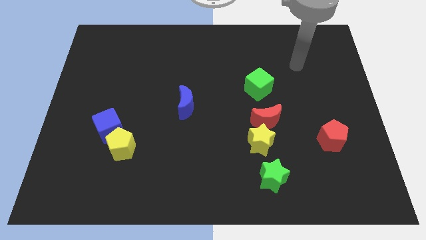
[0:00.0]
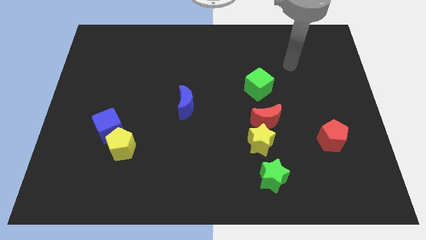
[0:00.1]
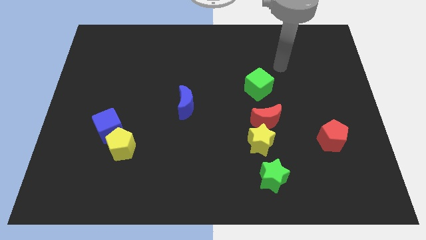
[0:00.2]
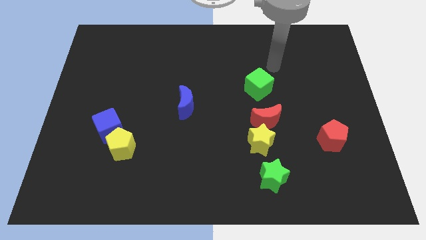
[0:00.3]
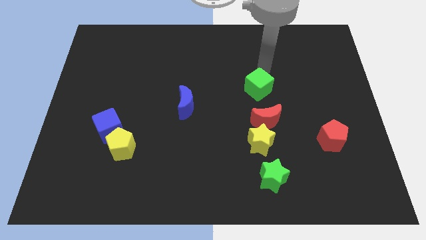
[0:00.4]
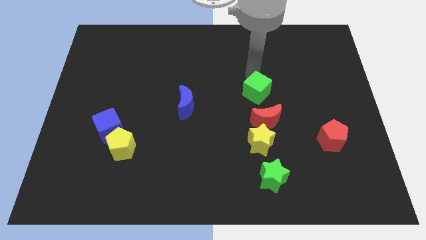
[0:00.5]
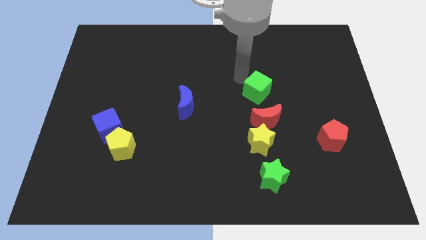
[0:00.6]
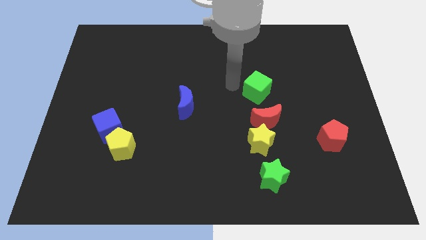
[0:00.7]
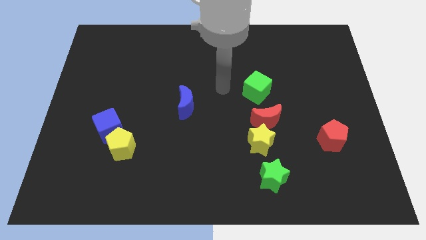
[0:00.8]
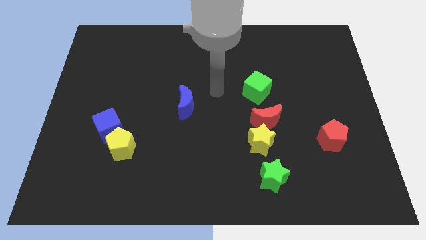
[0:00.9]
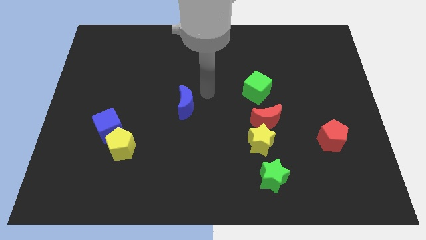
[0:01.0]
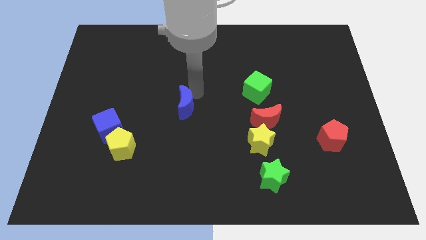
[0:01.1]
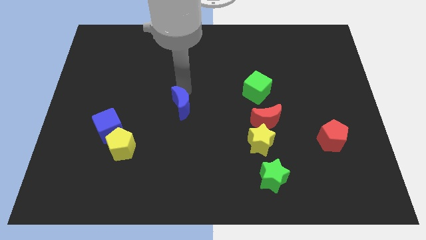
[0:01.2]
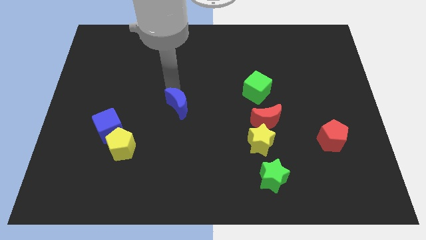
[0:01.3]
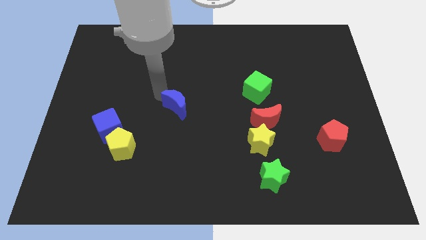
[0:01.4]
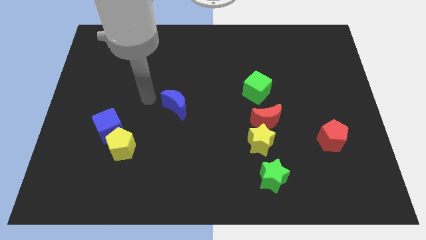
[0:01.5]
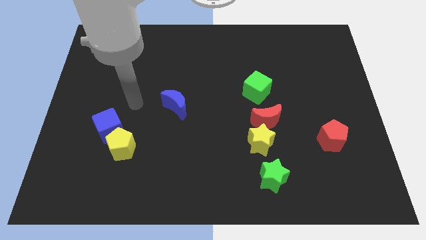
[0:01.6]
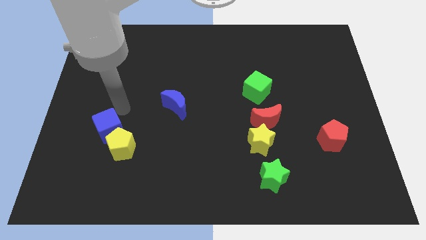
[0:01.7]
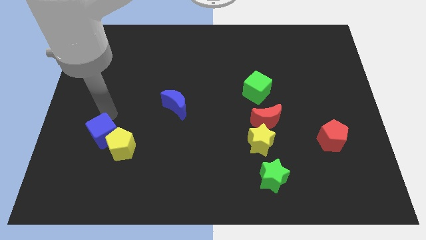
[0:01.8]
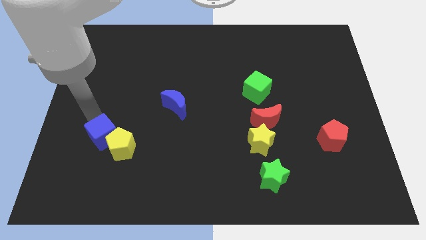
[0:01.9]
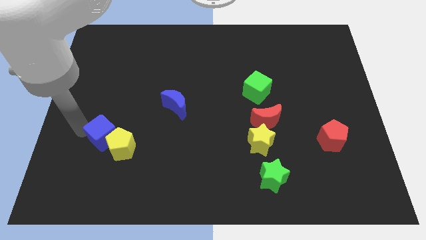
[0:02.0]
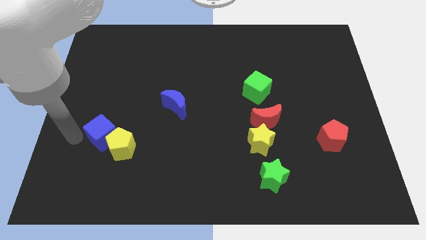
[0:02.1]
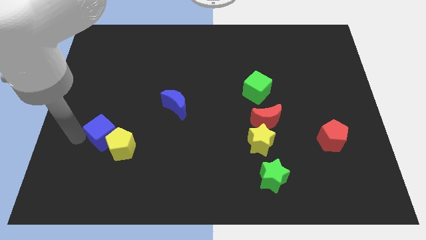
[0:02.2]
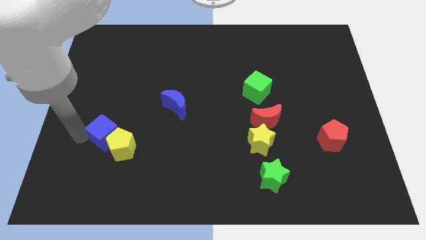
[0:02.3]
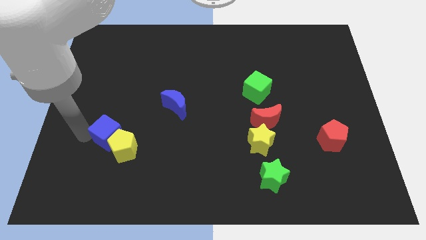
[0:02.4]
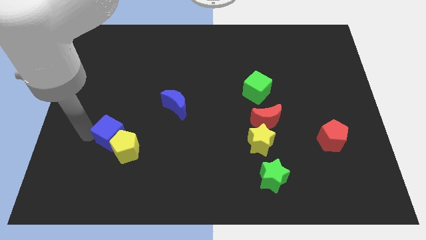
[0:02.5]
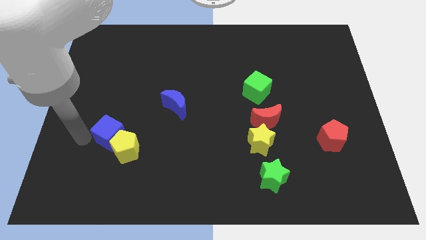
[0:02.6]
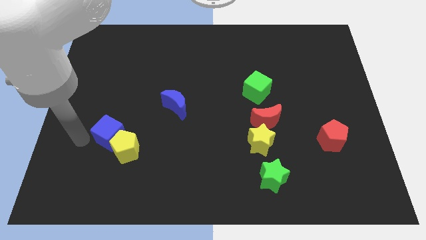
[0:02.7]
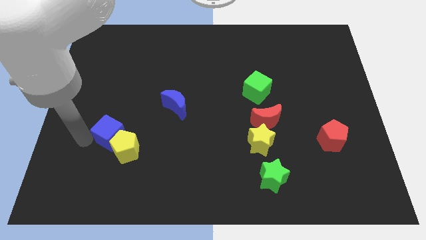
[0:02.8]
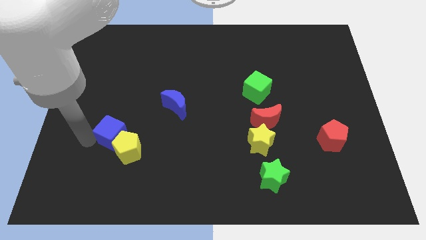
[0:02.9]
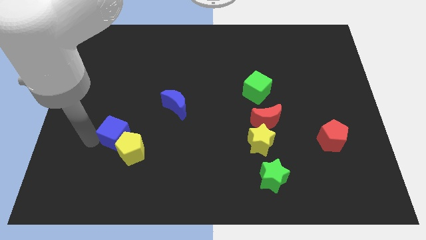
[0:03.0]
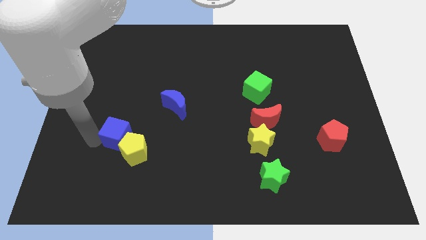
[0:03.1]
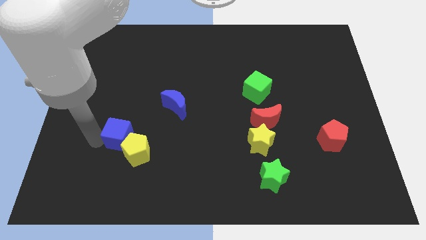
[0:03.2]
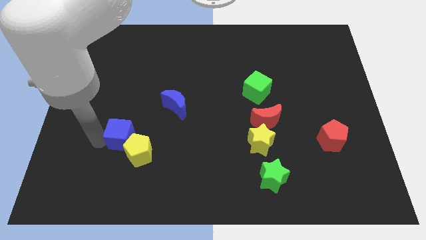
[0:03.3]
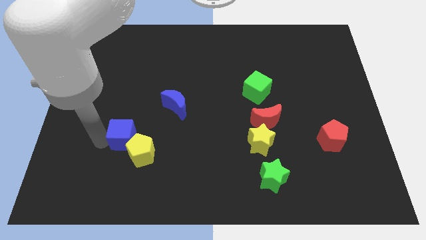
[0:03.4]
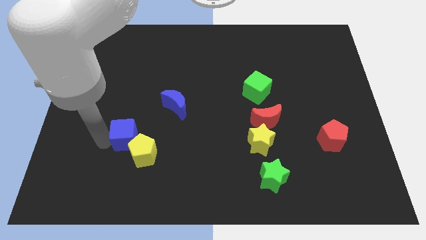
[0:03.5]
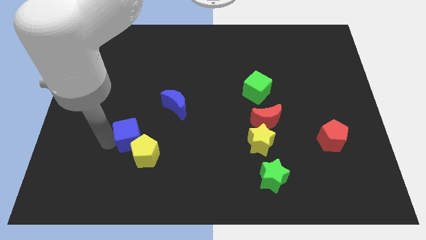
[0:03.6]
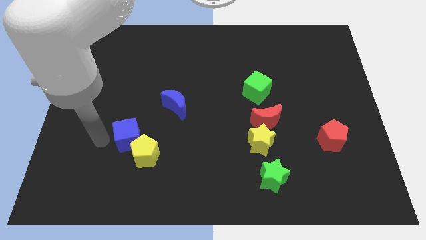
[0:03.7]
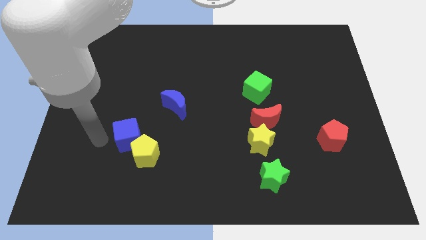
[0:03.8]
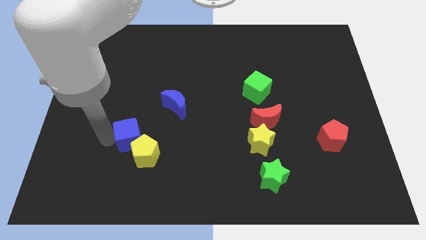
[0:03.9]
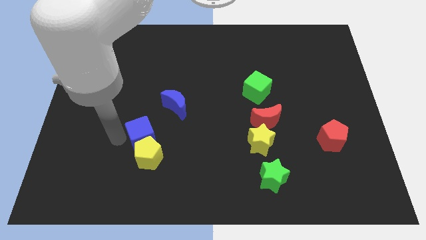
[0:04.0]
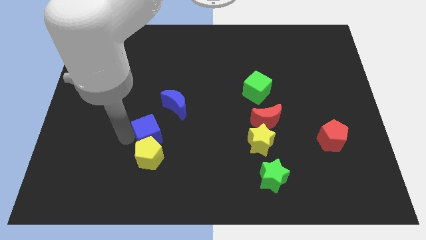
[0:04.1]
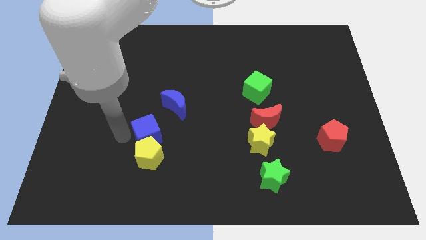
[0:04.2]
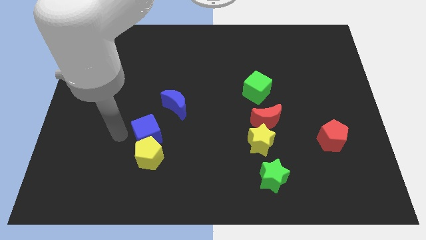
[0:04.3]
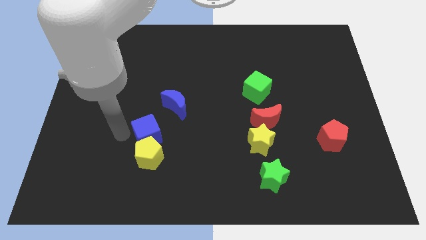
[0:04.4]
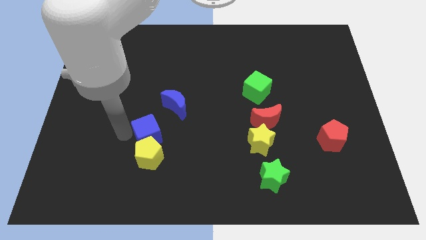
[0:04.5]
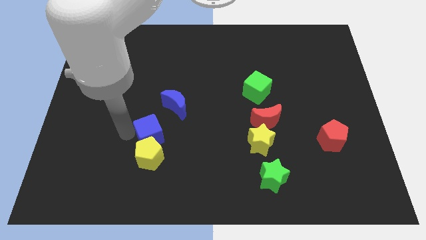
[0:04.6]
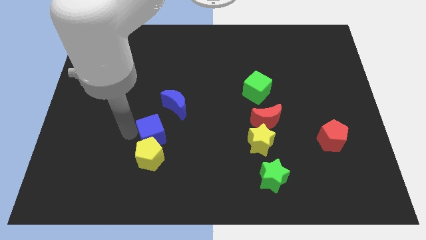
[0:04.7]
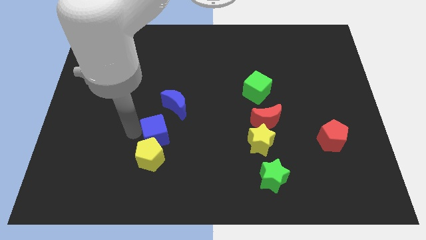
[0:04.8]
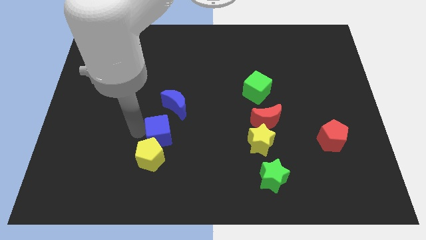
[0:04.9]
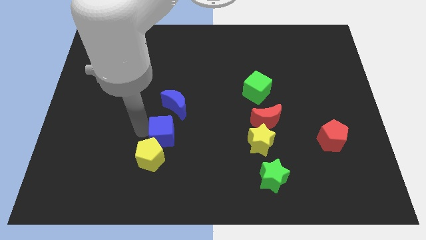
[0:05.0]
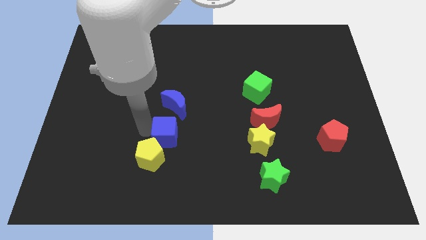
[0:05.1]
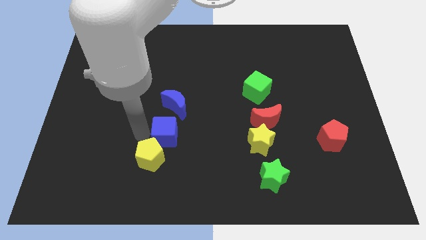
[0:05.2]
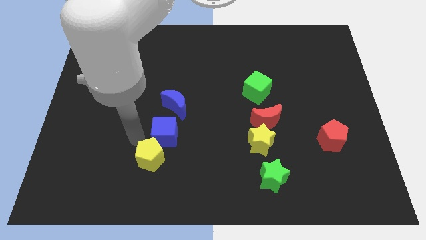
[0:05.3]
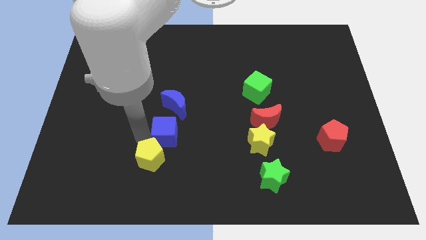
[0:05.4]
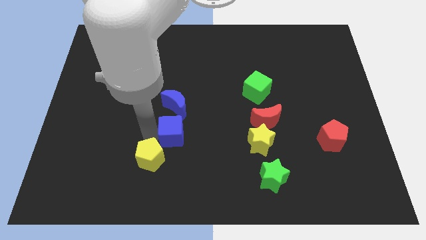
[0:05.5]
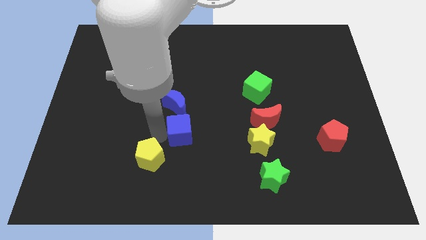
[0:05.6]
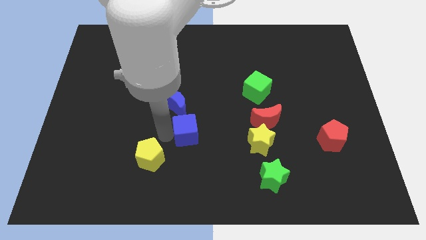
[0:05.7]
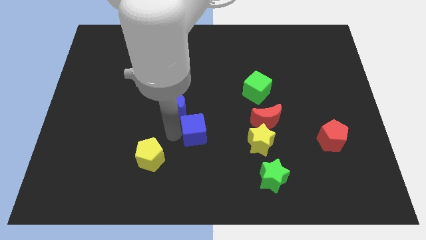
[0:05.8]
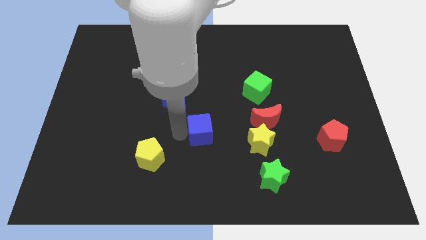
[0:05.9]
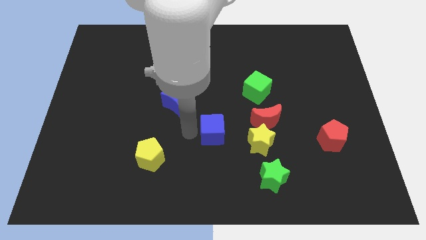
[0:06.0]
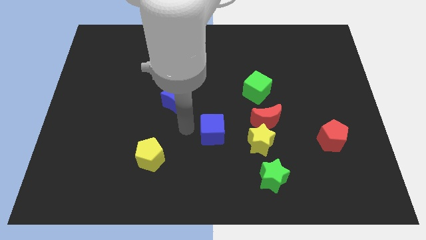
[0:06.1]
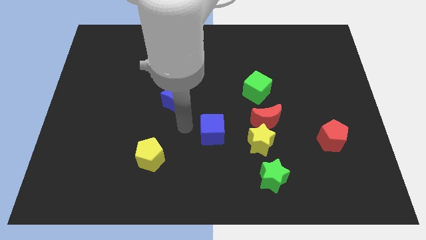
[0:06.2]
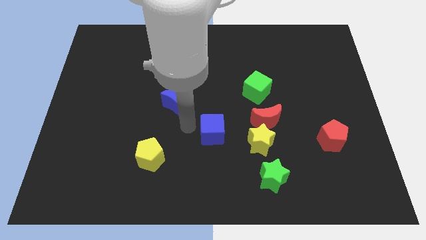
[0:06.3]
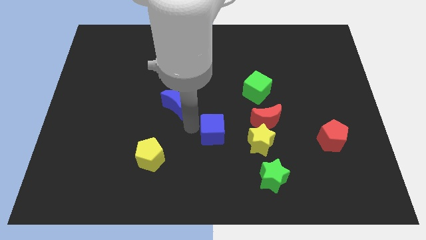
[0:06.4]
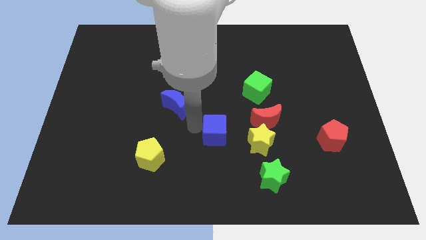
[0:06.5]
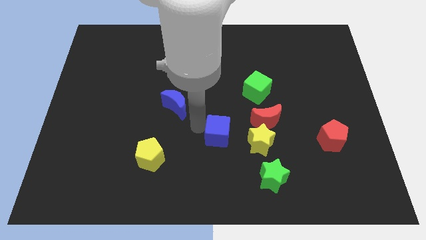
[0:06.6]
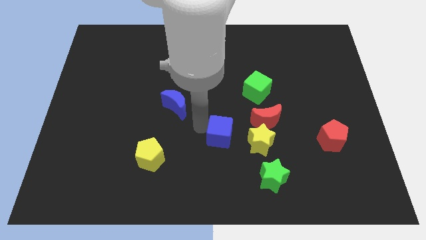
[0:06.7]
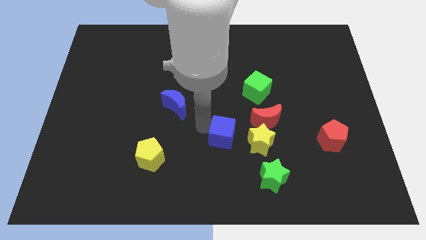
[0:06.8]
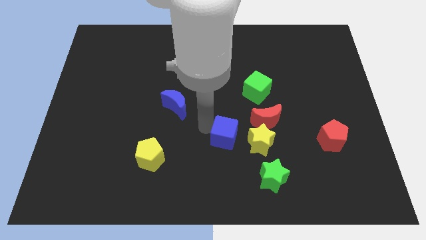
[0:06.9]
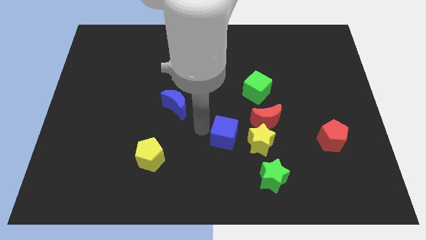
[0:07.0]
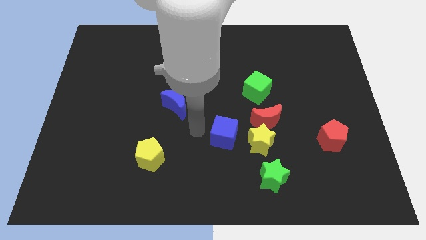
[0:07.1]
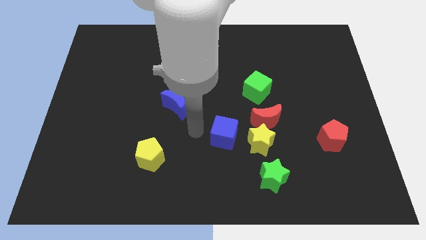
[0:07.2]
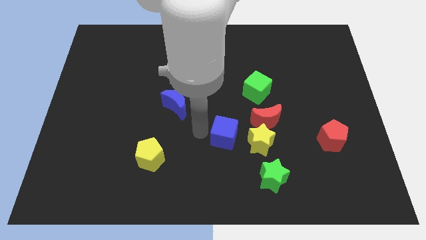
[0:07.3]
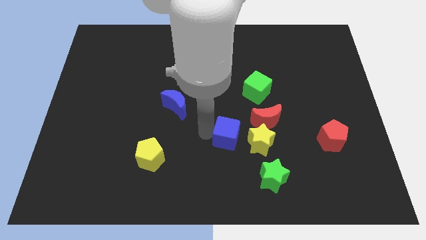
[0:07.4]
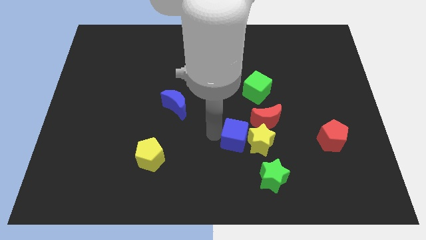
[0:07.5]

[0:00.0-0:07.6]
move the blue cube to the yellow star
